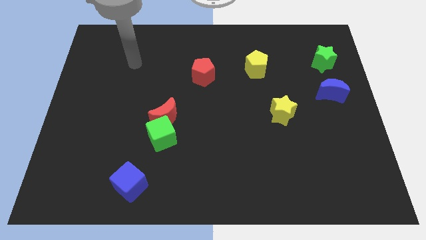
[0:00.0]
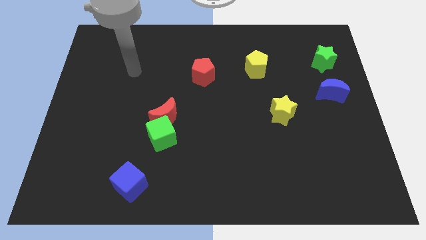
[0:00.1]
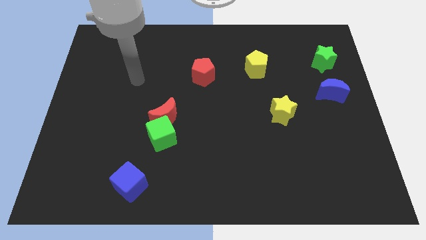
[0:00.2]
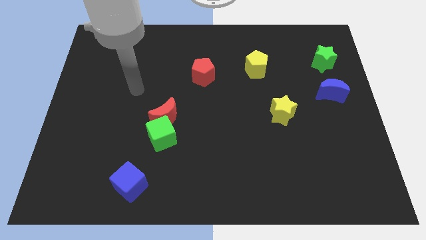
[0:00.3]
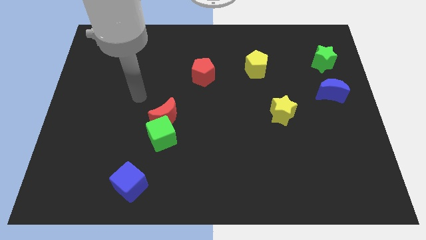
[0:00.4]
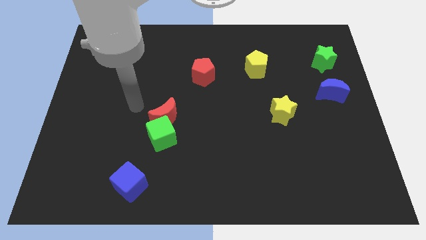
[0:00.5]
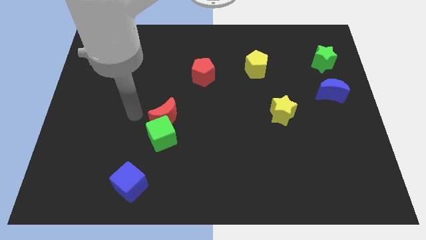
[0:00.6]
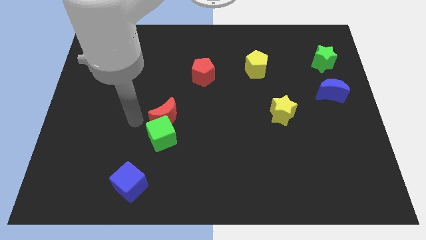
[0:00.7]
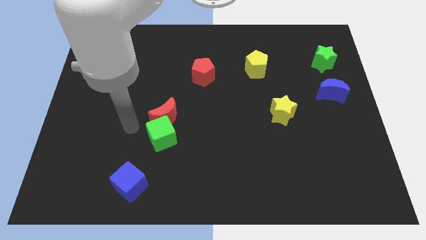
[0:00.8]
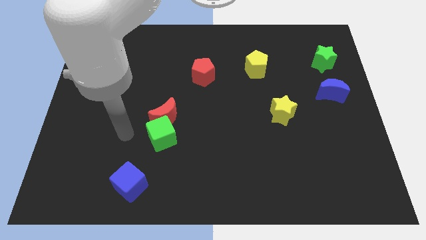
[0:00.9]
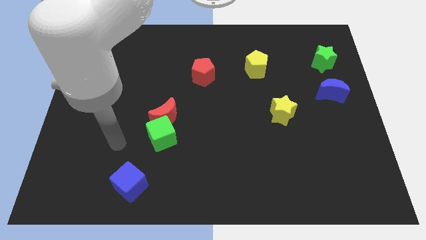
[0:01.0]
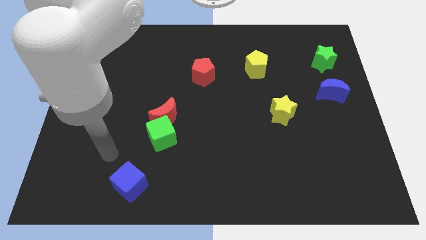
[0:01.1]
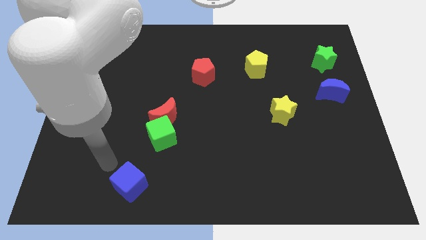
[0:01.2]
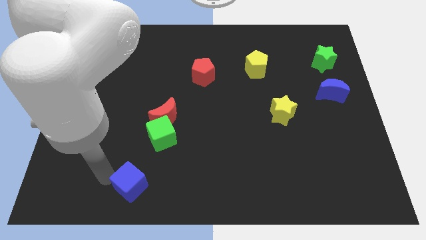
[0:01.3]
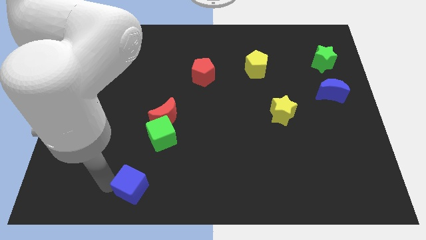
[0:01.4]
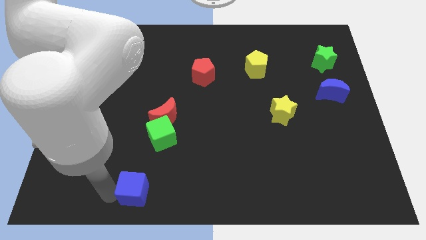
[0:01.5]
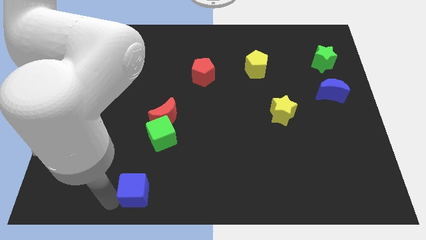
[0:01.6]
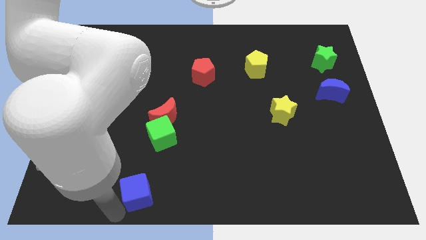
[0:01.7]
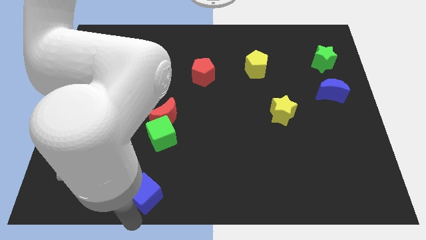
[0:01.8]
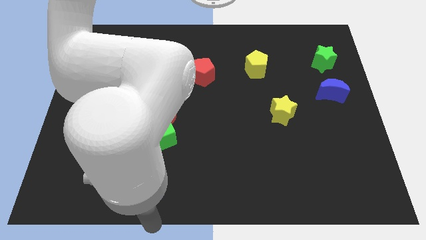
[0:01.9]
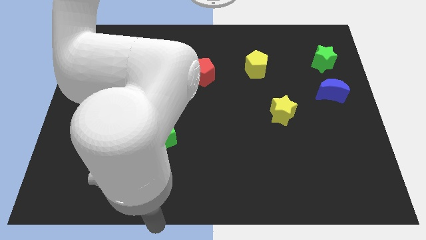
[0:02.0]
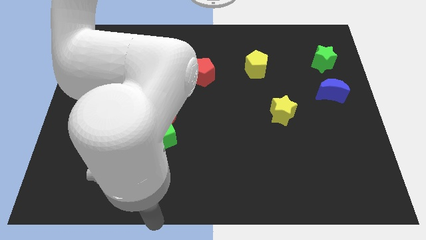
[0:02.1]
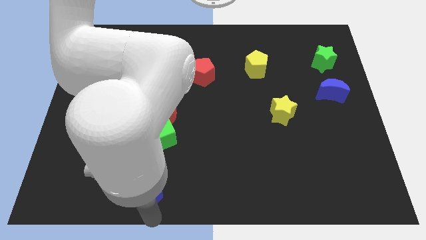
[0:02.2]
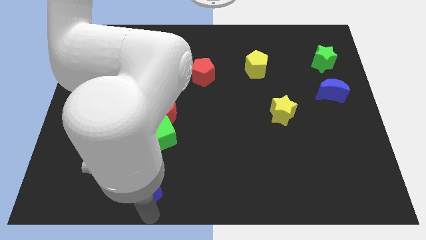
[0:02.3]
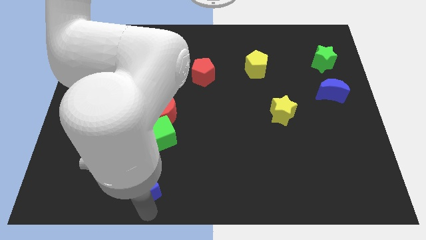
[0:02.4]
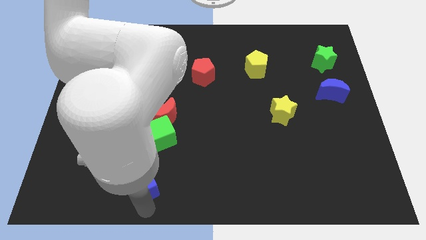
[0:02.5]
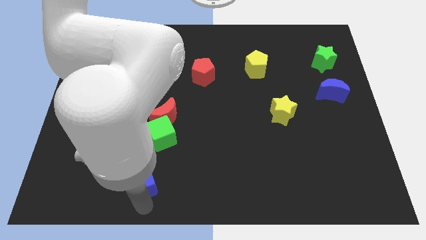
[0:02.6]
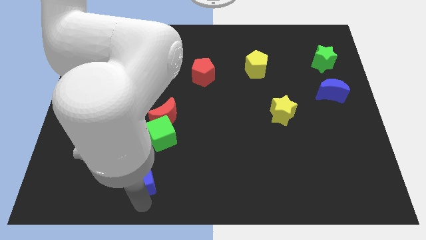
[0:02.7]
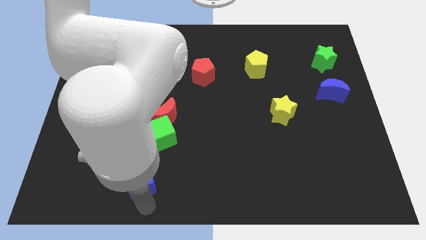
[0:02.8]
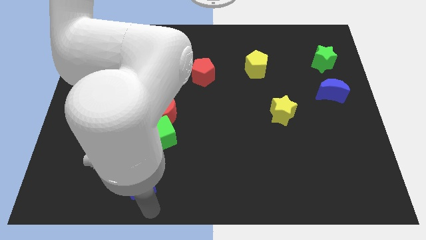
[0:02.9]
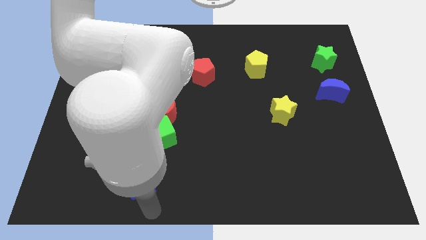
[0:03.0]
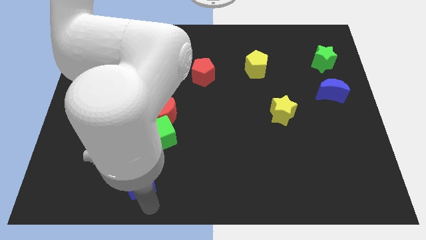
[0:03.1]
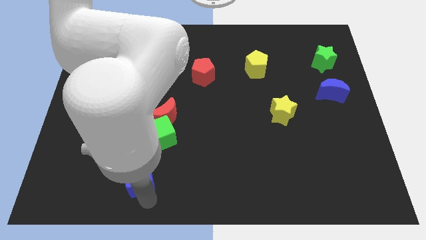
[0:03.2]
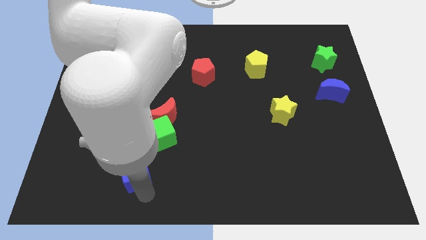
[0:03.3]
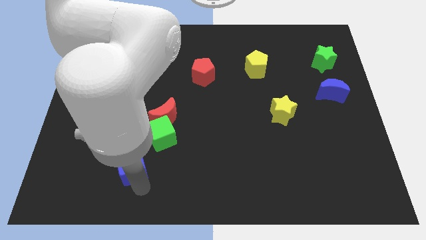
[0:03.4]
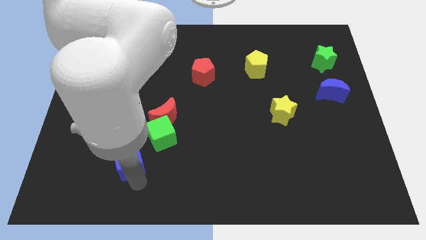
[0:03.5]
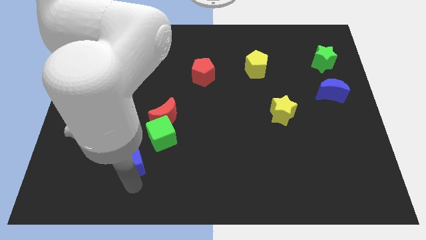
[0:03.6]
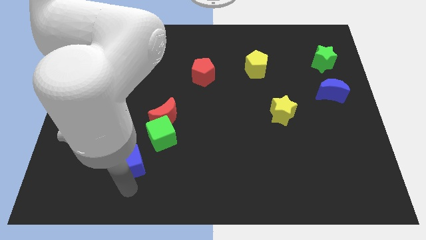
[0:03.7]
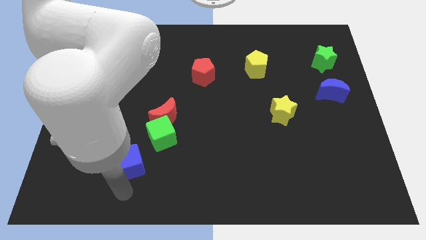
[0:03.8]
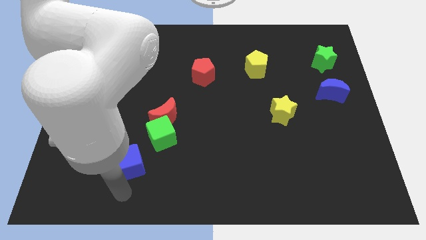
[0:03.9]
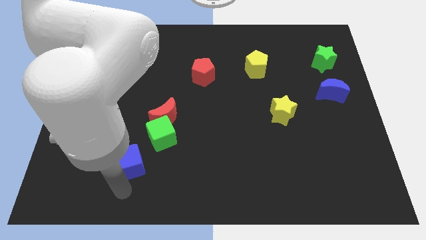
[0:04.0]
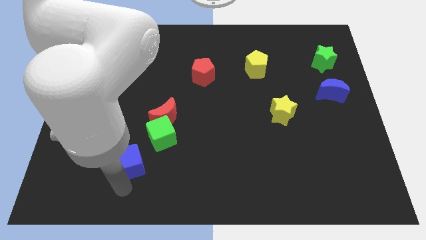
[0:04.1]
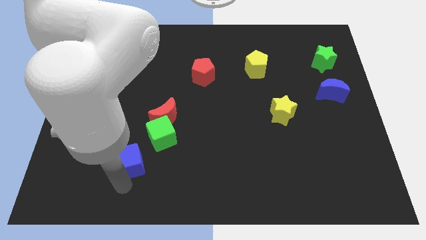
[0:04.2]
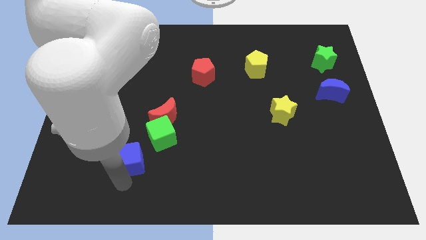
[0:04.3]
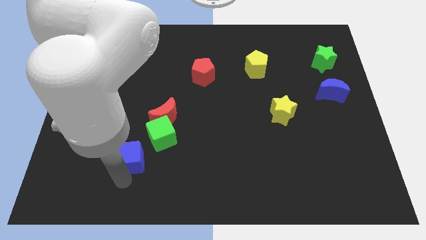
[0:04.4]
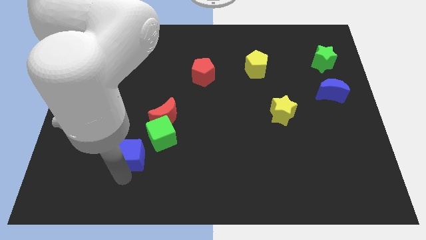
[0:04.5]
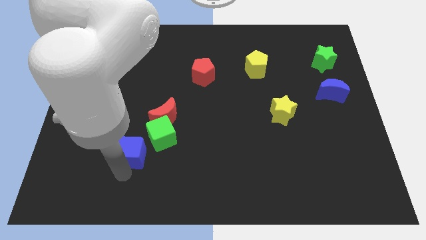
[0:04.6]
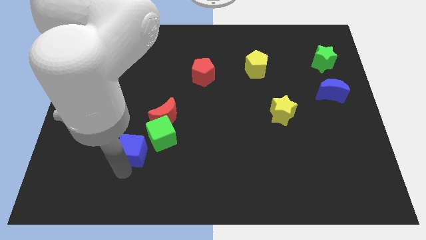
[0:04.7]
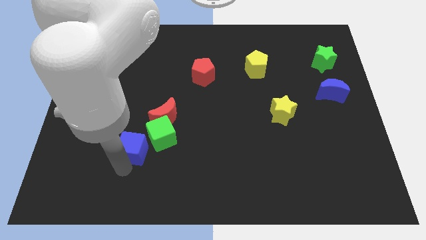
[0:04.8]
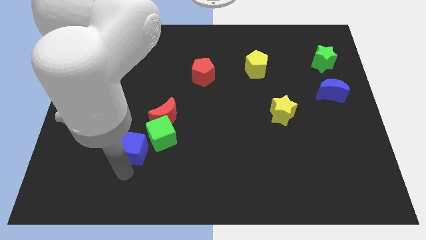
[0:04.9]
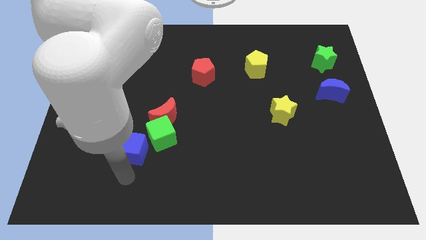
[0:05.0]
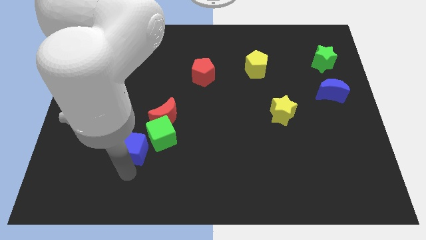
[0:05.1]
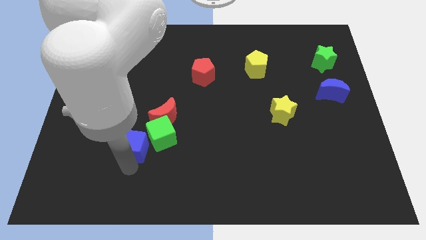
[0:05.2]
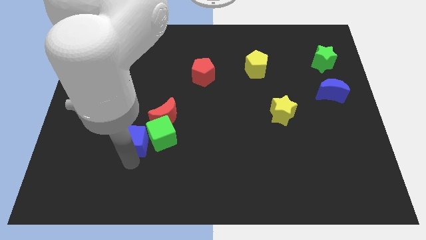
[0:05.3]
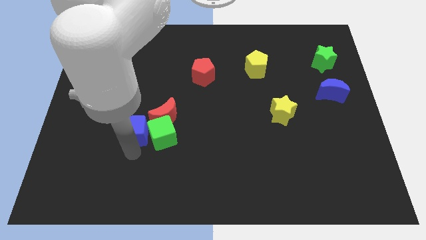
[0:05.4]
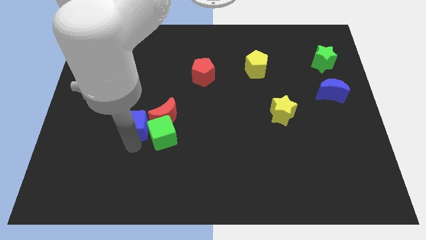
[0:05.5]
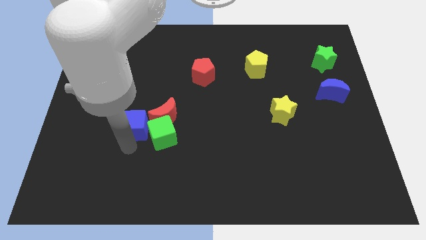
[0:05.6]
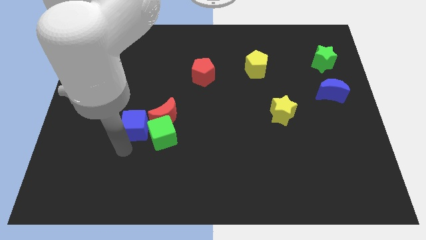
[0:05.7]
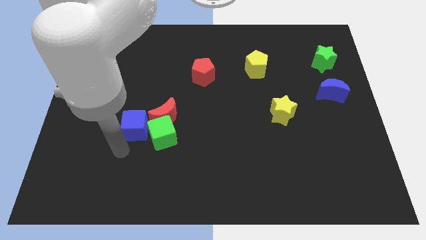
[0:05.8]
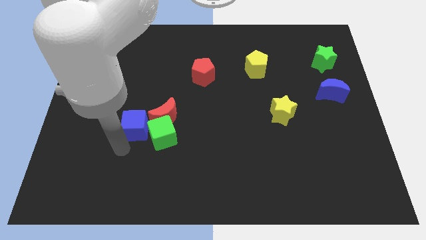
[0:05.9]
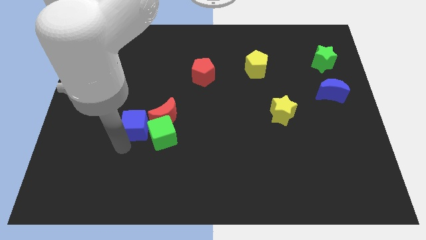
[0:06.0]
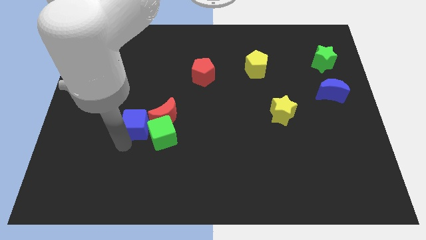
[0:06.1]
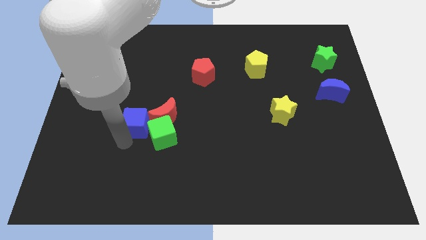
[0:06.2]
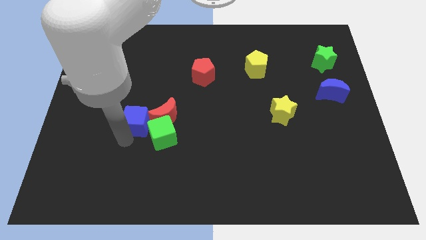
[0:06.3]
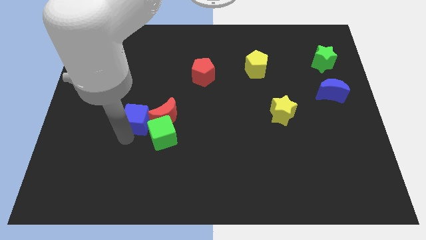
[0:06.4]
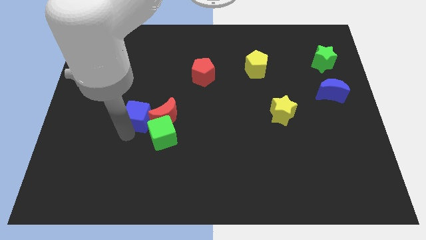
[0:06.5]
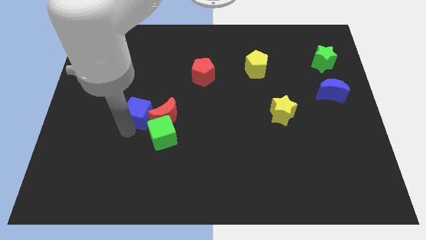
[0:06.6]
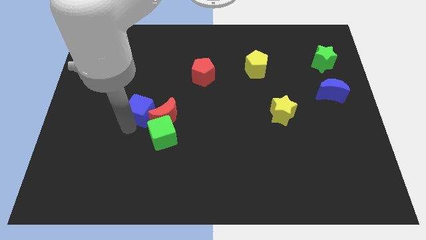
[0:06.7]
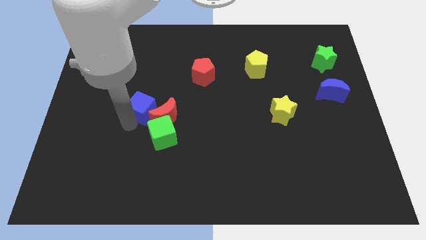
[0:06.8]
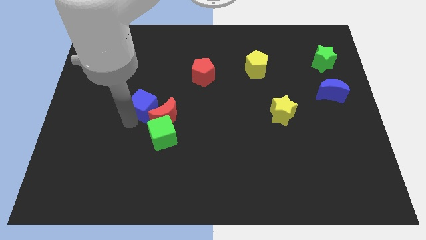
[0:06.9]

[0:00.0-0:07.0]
move the blue cube above the green cube

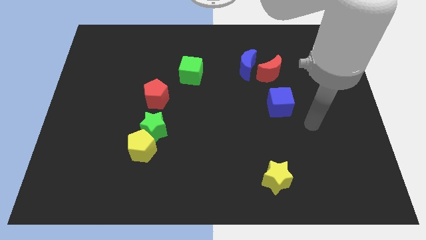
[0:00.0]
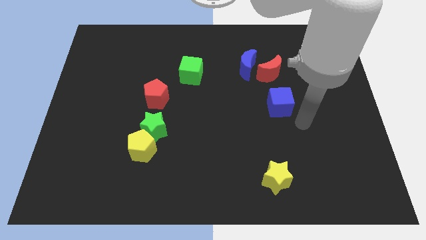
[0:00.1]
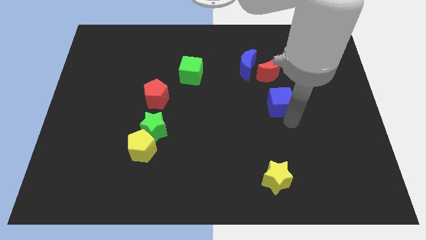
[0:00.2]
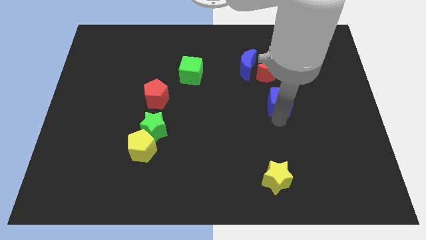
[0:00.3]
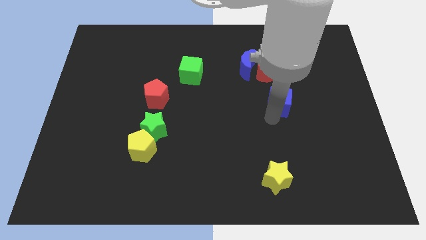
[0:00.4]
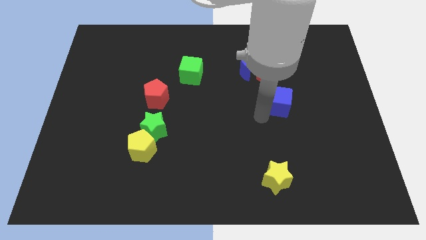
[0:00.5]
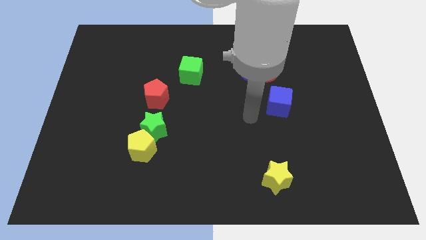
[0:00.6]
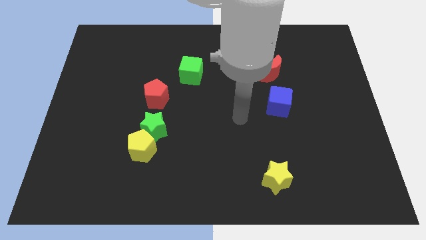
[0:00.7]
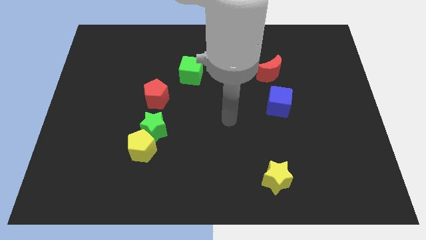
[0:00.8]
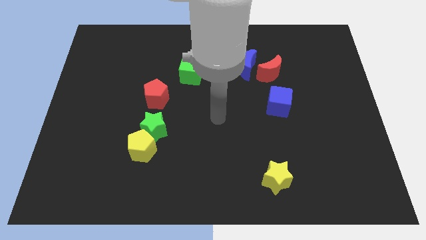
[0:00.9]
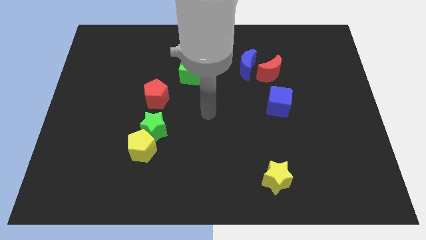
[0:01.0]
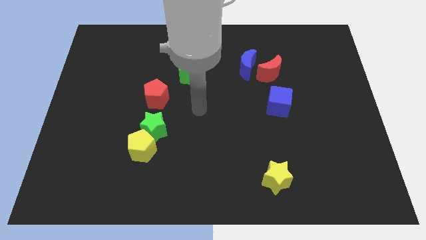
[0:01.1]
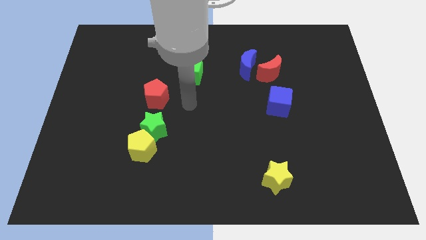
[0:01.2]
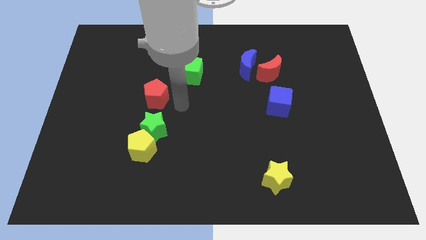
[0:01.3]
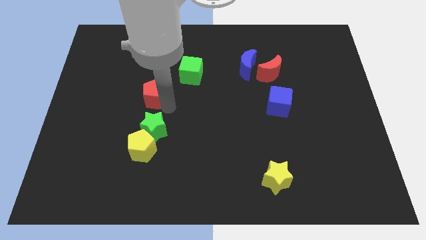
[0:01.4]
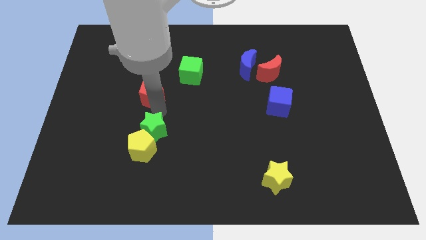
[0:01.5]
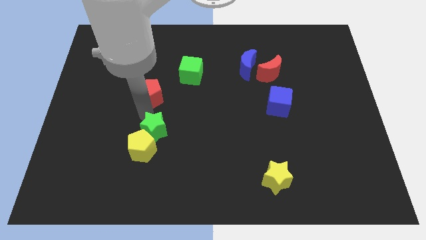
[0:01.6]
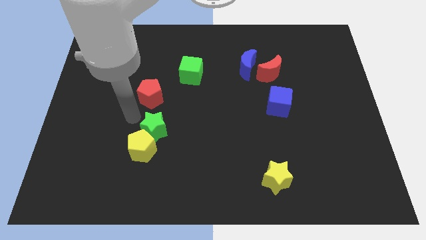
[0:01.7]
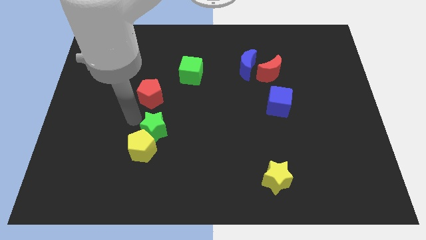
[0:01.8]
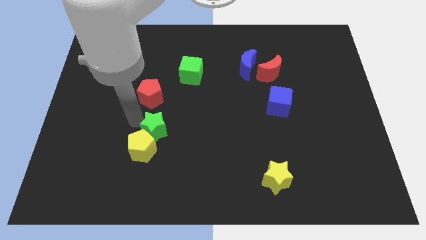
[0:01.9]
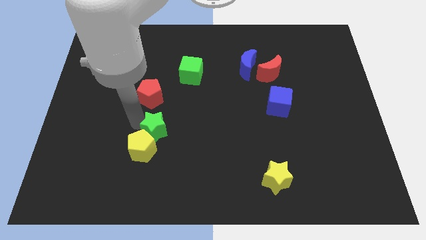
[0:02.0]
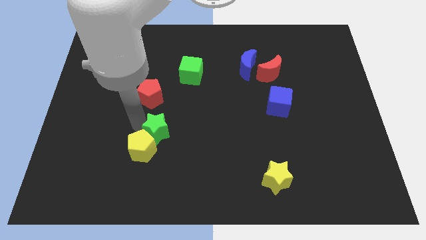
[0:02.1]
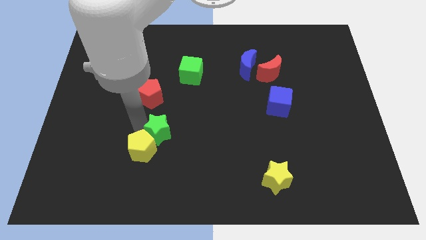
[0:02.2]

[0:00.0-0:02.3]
move the green star right of the yellow pentagon
